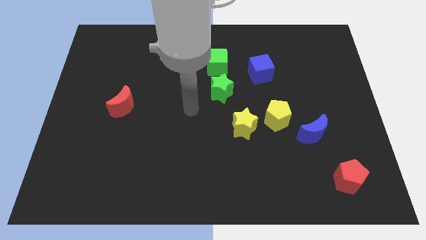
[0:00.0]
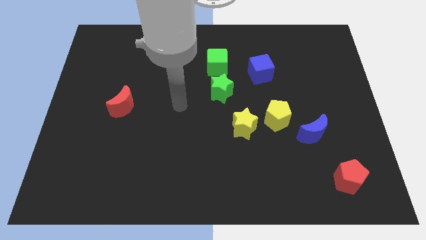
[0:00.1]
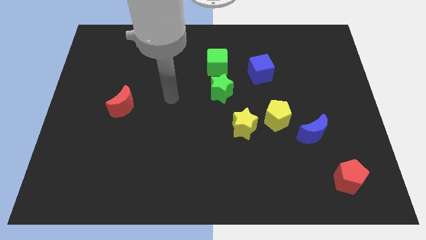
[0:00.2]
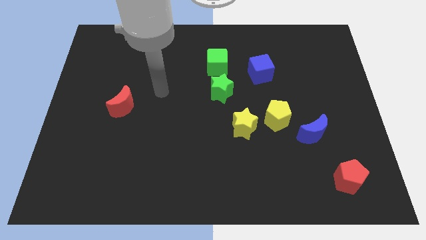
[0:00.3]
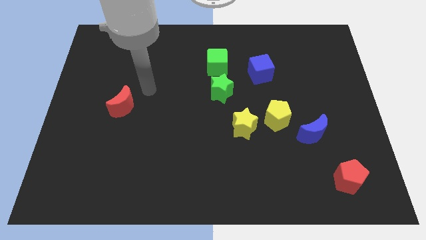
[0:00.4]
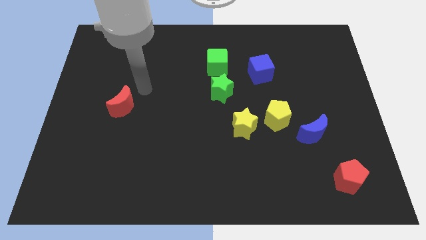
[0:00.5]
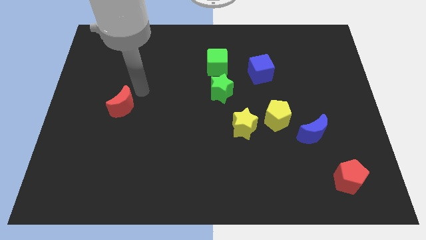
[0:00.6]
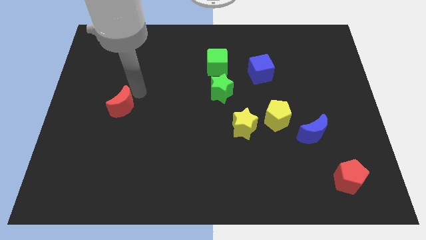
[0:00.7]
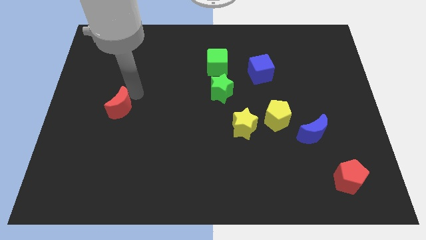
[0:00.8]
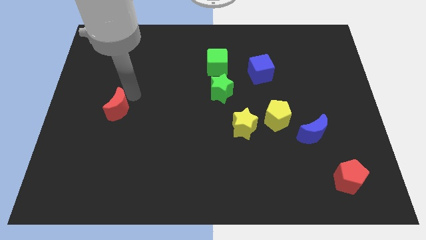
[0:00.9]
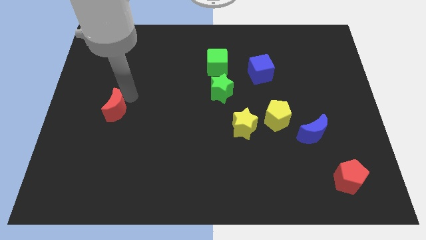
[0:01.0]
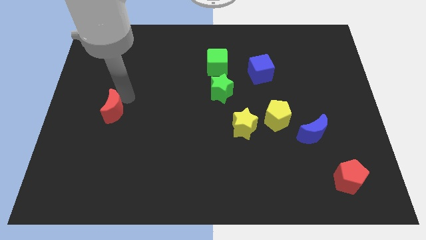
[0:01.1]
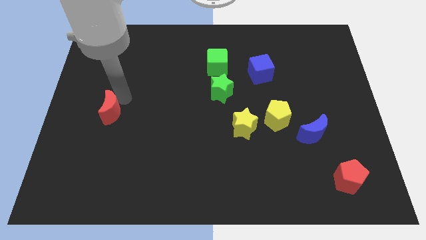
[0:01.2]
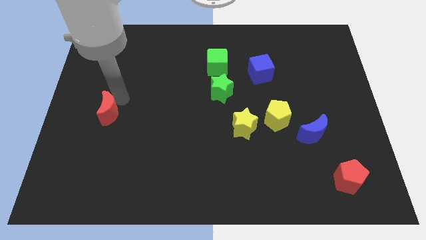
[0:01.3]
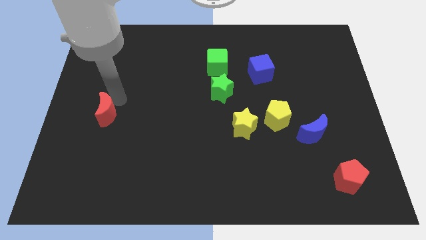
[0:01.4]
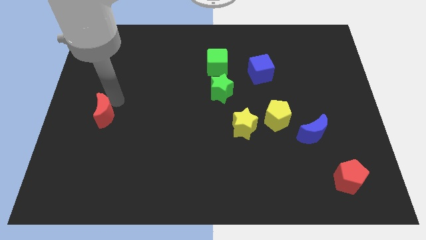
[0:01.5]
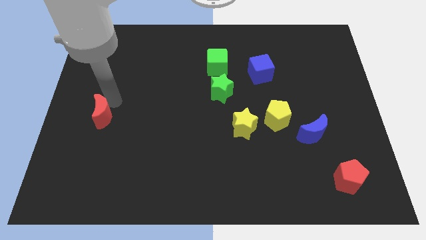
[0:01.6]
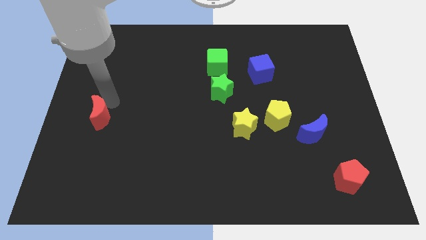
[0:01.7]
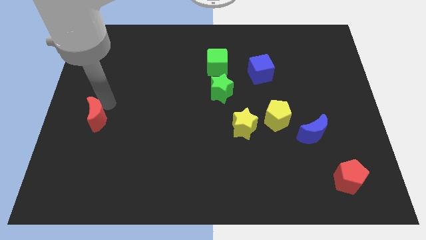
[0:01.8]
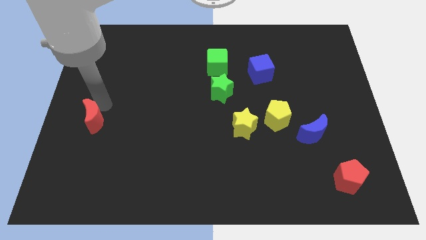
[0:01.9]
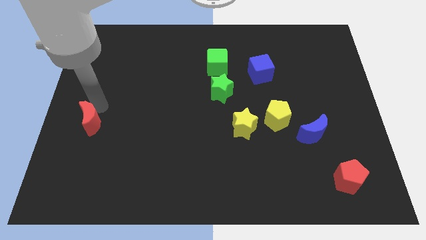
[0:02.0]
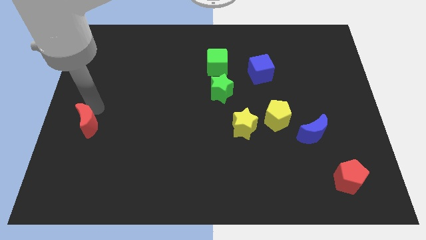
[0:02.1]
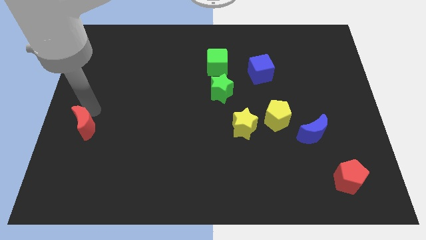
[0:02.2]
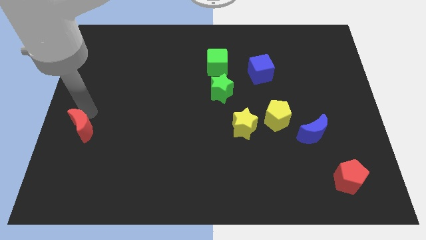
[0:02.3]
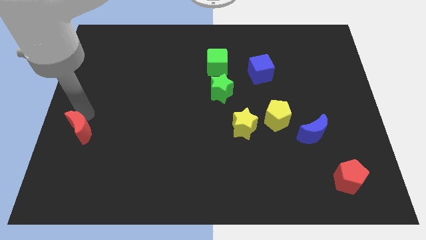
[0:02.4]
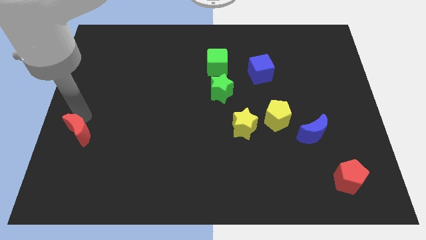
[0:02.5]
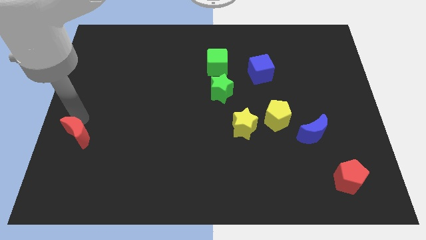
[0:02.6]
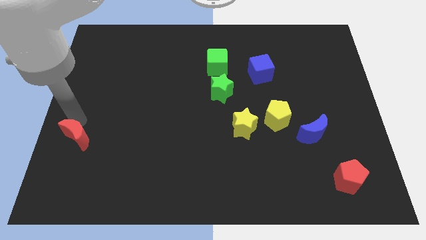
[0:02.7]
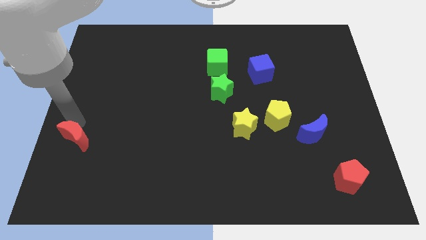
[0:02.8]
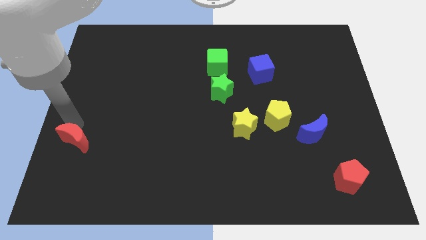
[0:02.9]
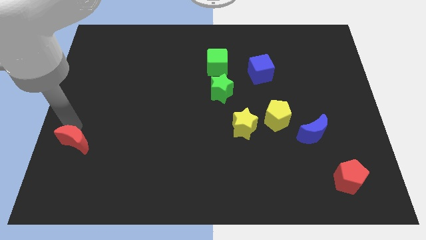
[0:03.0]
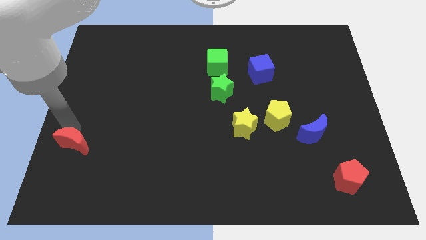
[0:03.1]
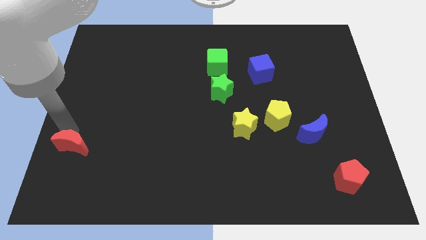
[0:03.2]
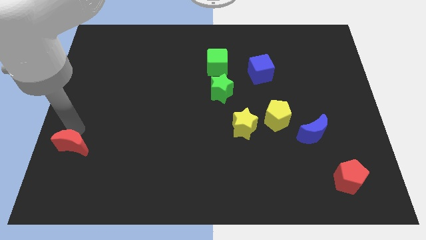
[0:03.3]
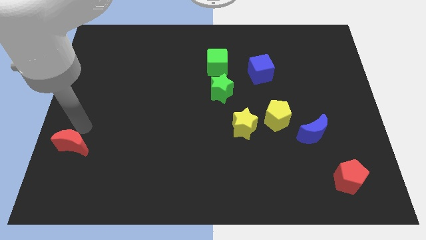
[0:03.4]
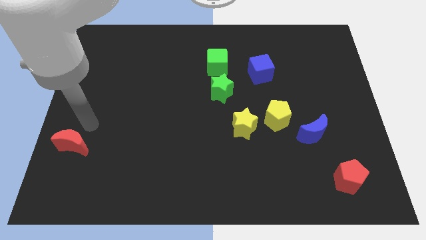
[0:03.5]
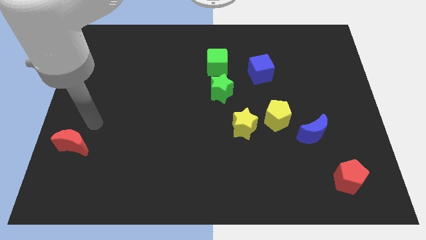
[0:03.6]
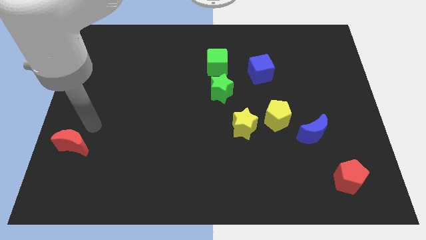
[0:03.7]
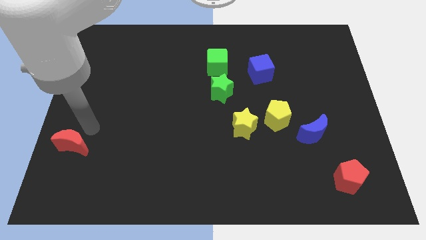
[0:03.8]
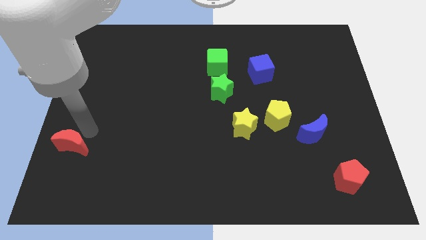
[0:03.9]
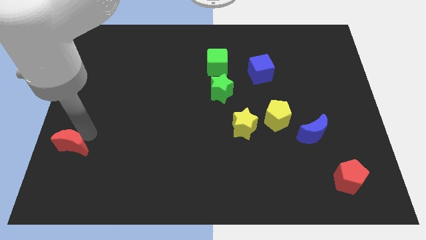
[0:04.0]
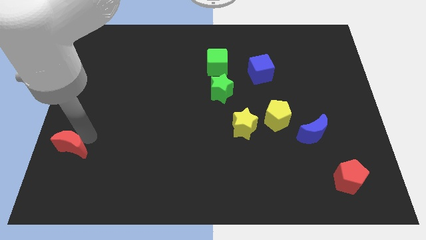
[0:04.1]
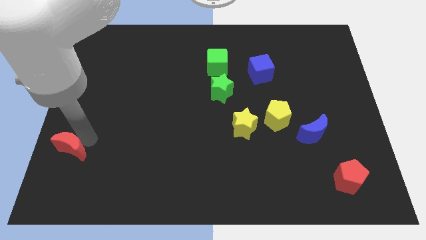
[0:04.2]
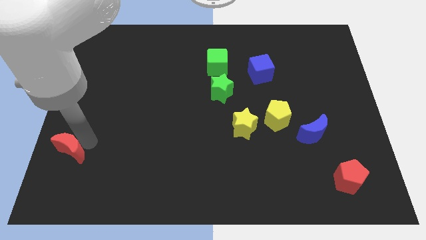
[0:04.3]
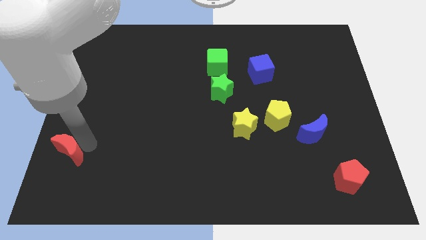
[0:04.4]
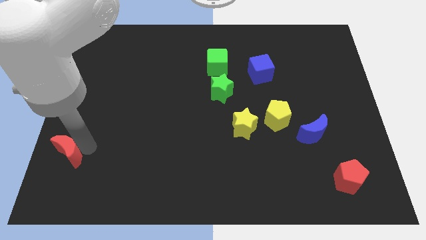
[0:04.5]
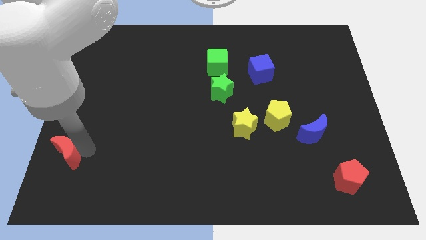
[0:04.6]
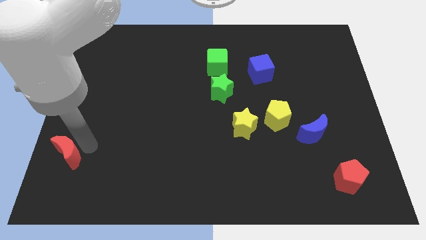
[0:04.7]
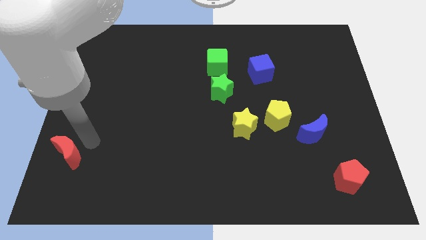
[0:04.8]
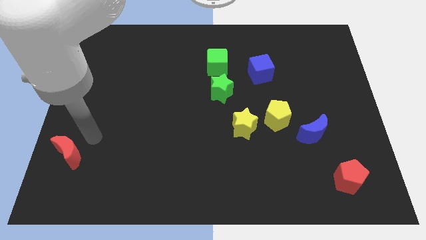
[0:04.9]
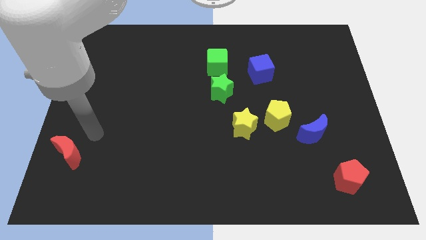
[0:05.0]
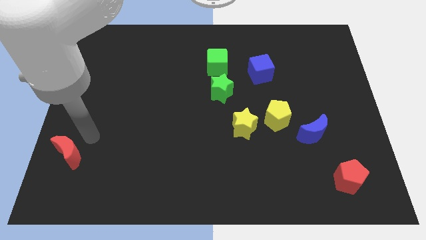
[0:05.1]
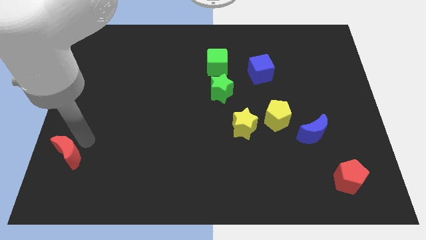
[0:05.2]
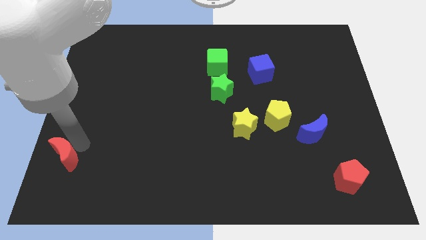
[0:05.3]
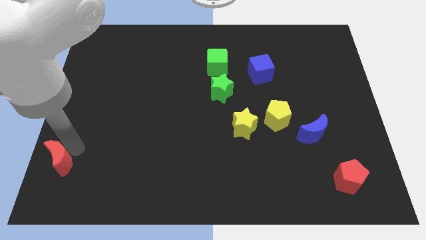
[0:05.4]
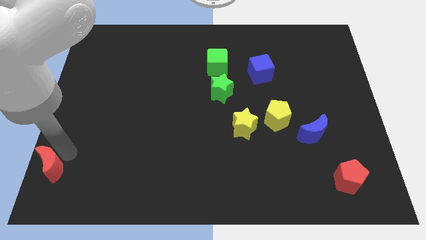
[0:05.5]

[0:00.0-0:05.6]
push the red moon to the lower left corner

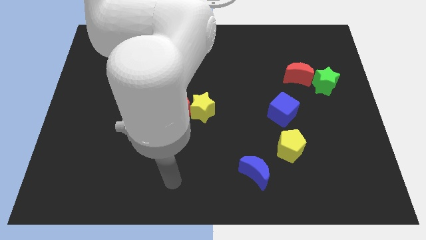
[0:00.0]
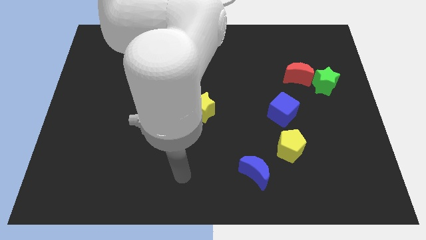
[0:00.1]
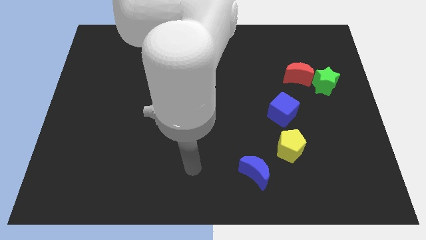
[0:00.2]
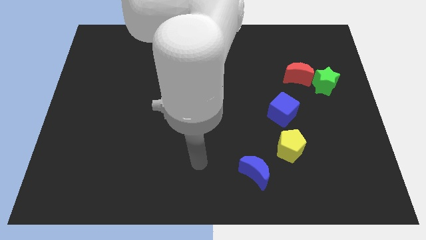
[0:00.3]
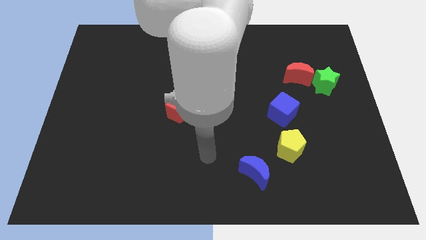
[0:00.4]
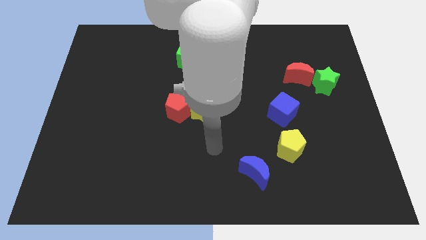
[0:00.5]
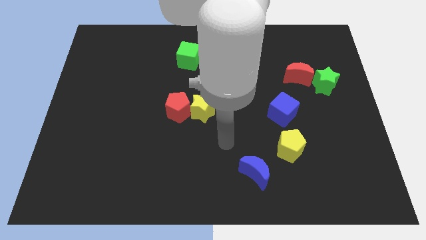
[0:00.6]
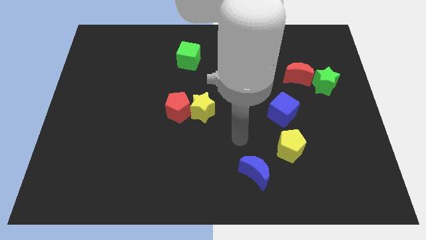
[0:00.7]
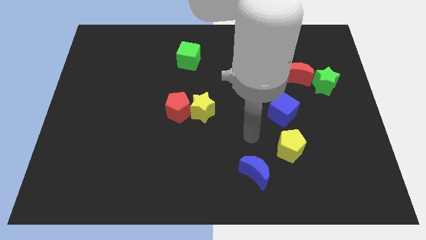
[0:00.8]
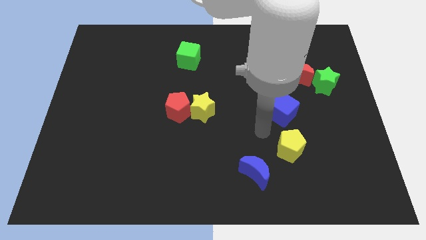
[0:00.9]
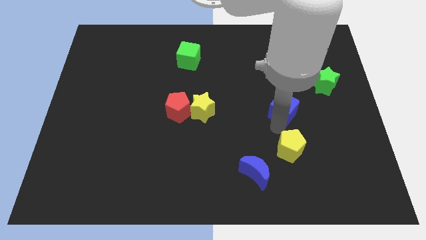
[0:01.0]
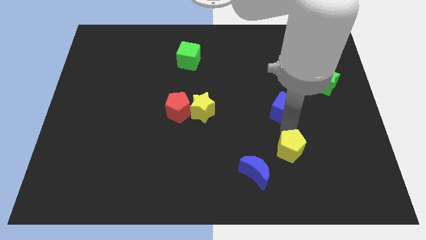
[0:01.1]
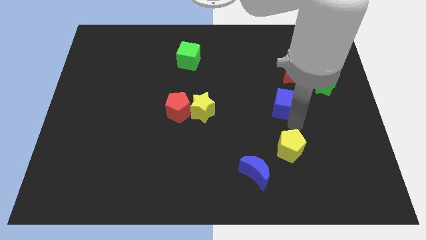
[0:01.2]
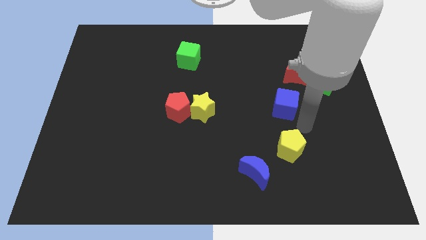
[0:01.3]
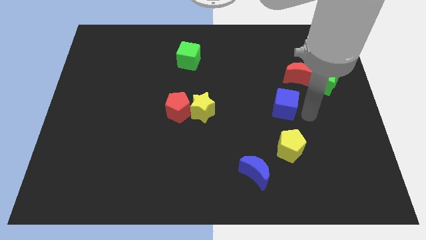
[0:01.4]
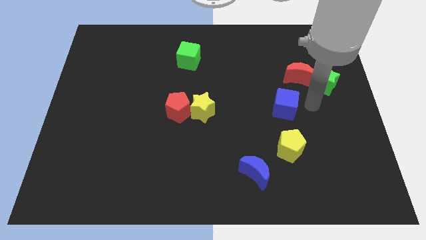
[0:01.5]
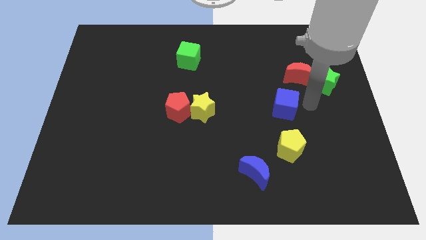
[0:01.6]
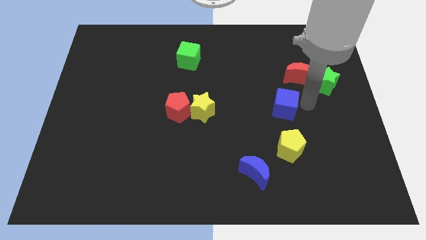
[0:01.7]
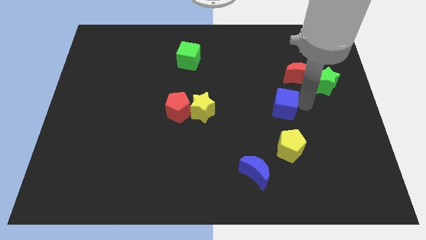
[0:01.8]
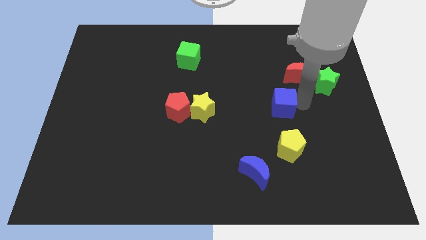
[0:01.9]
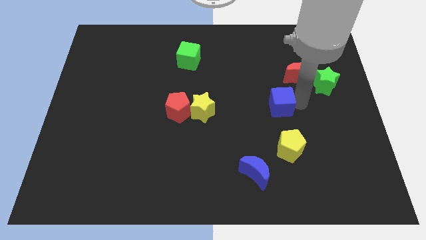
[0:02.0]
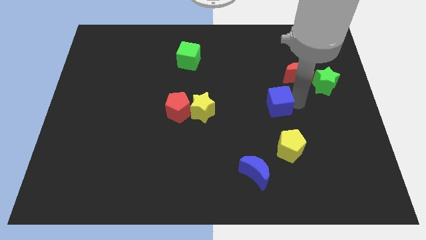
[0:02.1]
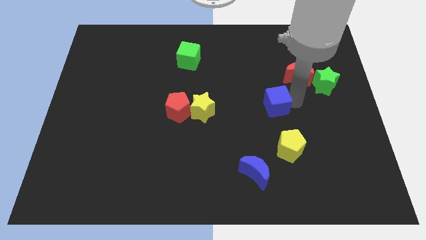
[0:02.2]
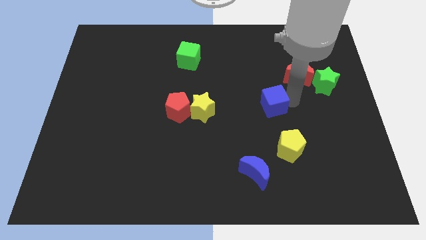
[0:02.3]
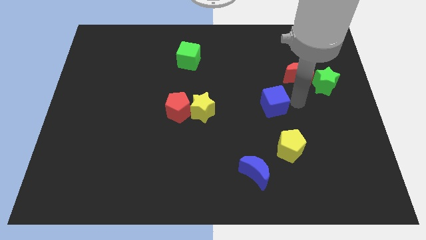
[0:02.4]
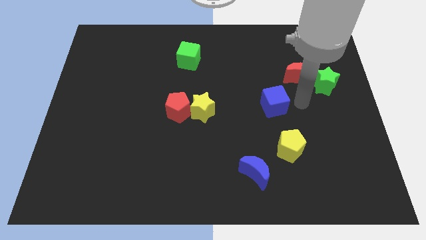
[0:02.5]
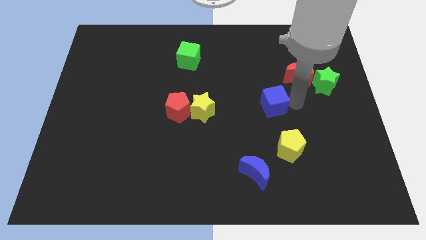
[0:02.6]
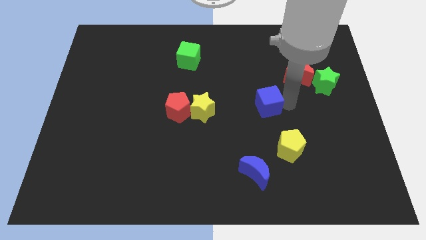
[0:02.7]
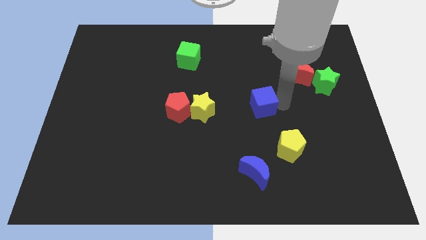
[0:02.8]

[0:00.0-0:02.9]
push the blue cube to the center of the board
